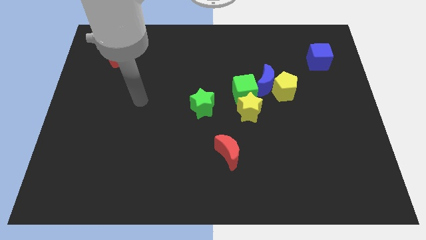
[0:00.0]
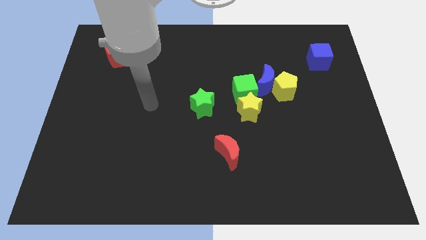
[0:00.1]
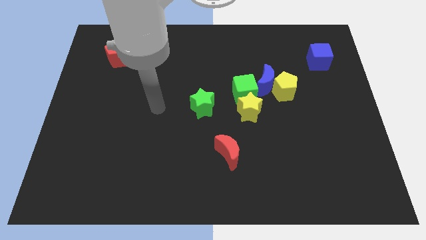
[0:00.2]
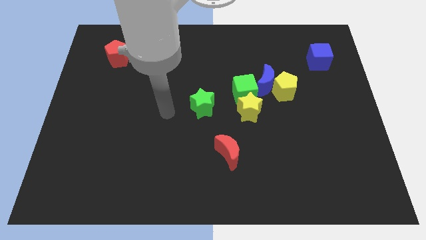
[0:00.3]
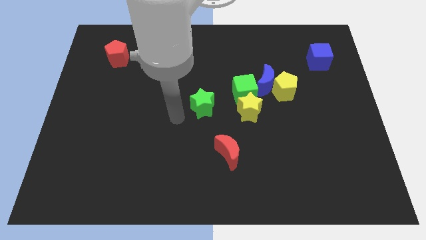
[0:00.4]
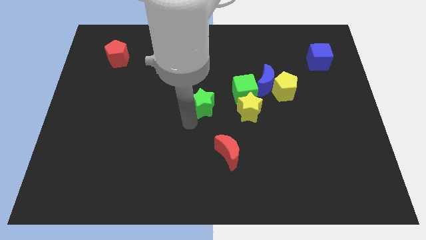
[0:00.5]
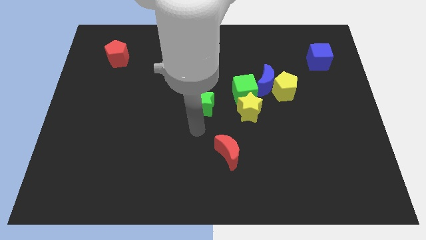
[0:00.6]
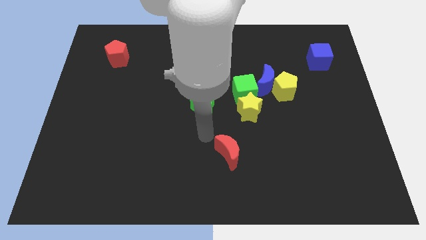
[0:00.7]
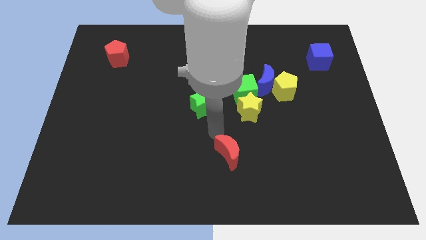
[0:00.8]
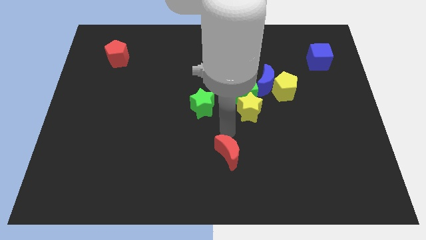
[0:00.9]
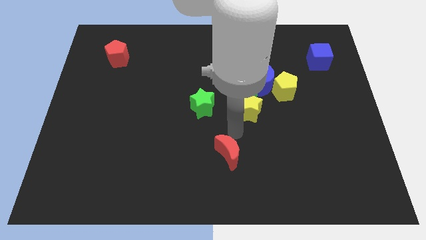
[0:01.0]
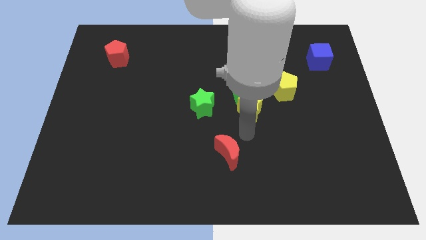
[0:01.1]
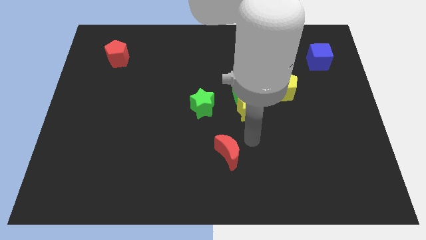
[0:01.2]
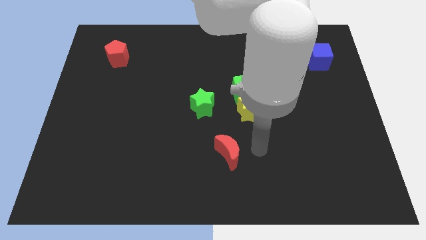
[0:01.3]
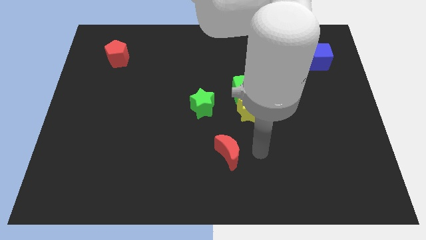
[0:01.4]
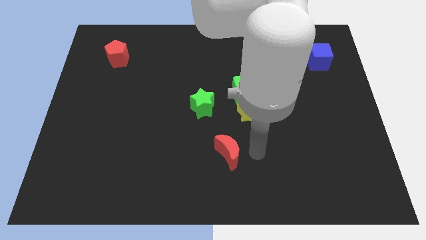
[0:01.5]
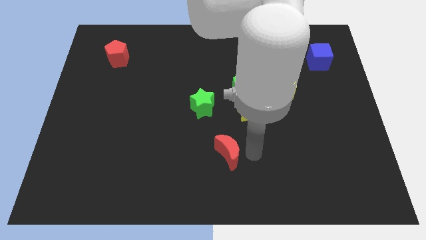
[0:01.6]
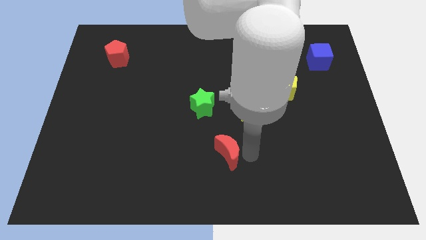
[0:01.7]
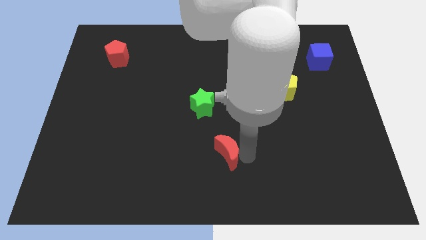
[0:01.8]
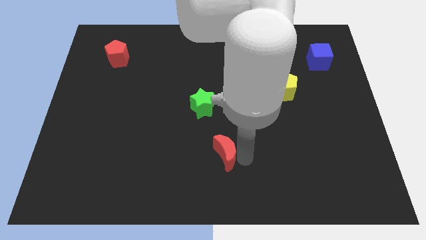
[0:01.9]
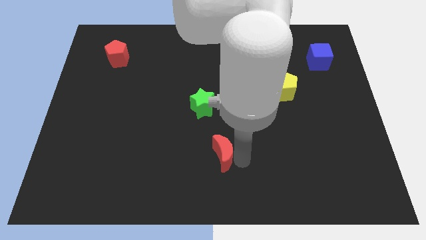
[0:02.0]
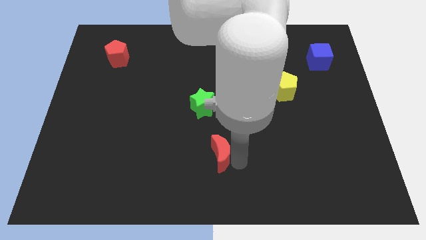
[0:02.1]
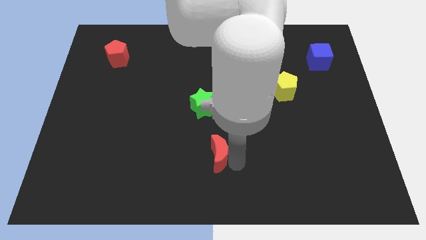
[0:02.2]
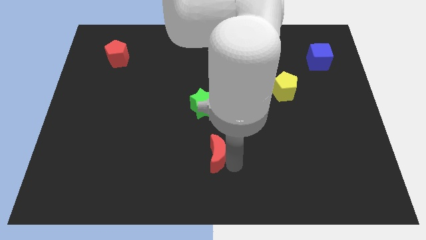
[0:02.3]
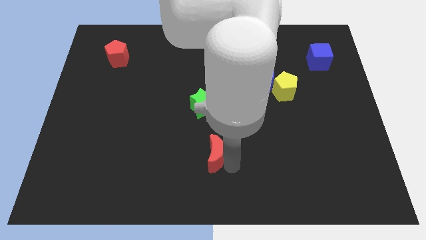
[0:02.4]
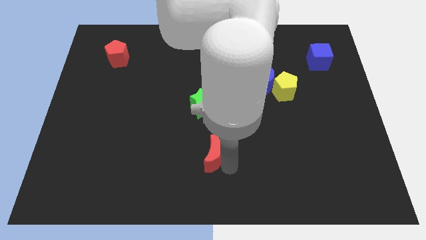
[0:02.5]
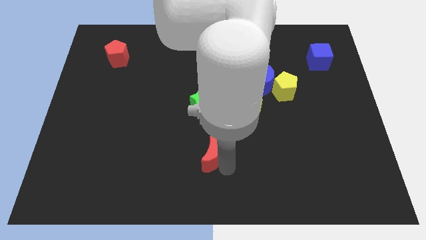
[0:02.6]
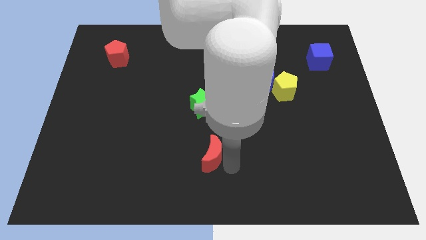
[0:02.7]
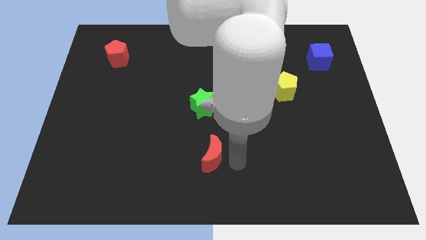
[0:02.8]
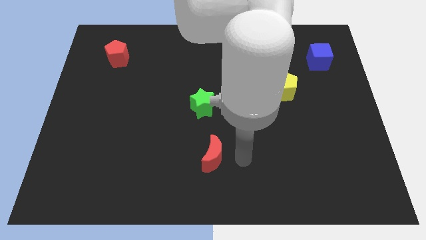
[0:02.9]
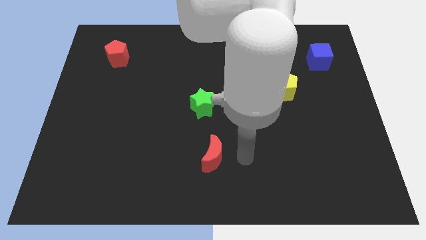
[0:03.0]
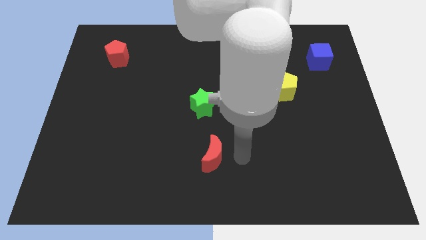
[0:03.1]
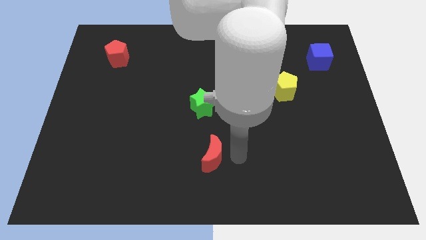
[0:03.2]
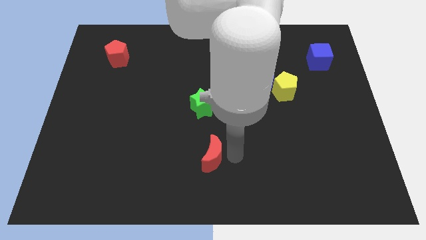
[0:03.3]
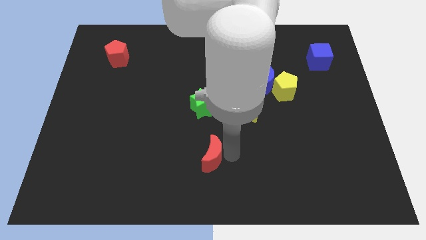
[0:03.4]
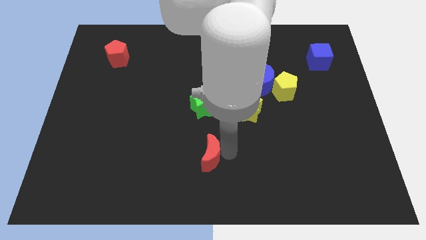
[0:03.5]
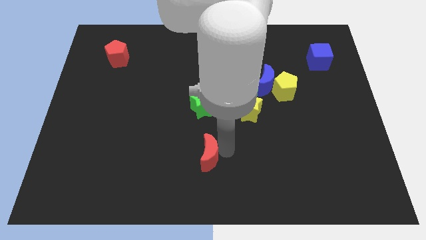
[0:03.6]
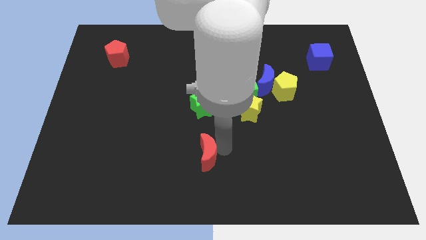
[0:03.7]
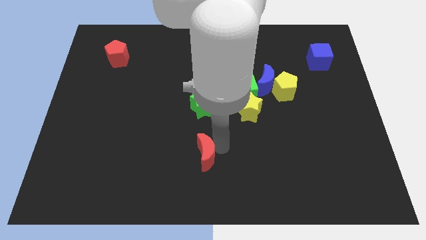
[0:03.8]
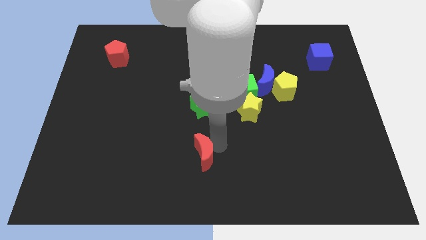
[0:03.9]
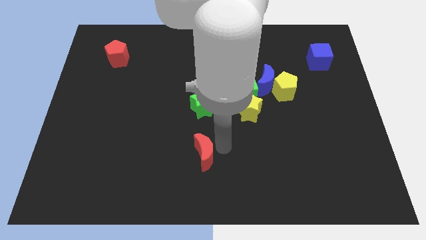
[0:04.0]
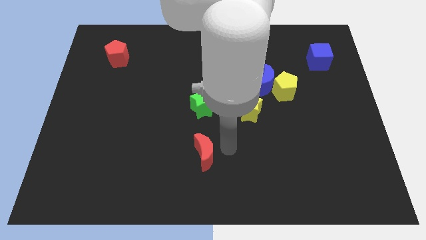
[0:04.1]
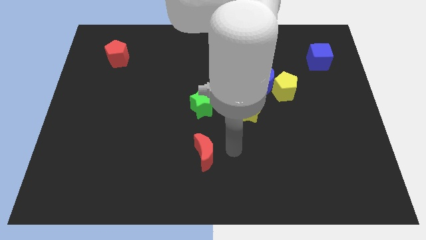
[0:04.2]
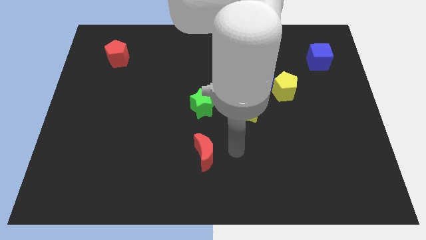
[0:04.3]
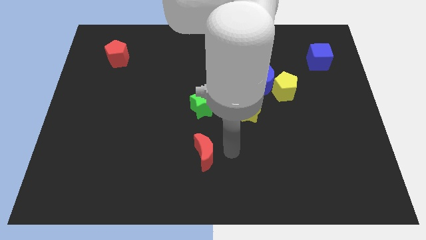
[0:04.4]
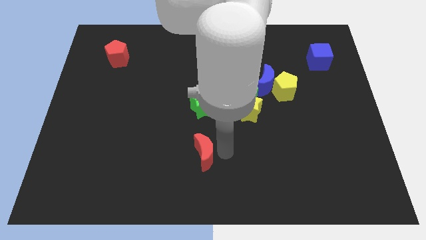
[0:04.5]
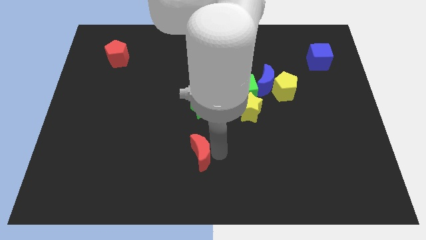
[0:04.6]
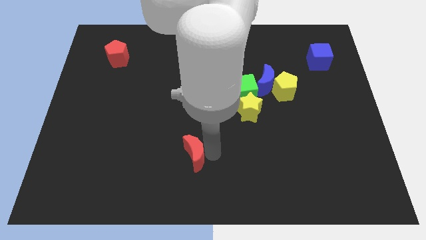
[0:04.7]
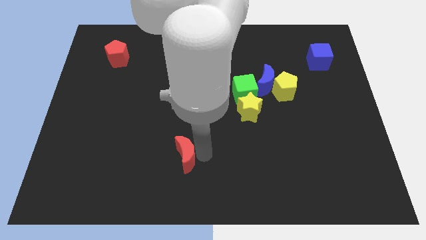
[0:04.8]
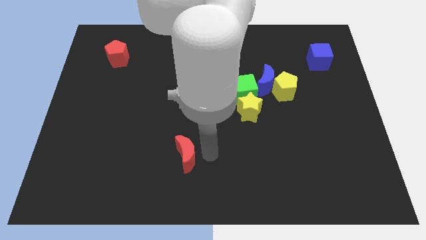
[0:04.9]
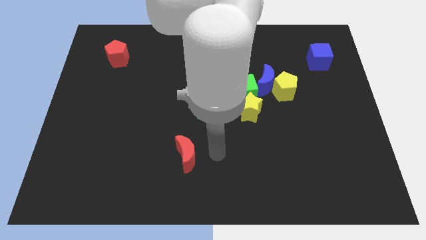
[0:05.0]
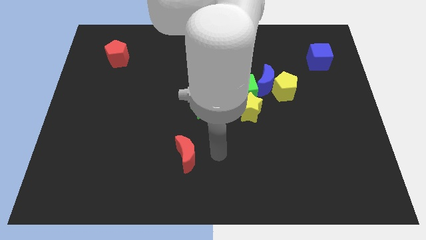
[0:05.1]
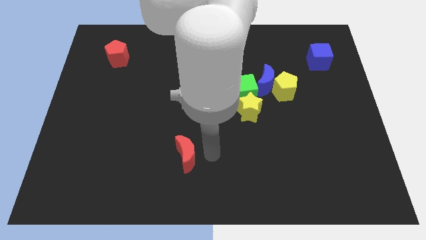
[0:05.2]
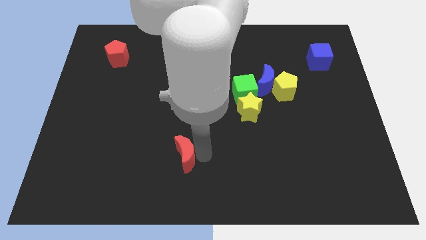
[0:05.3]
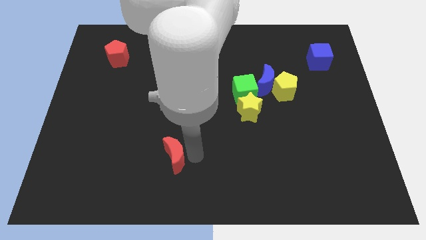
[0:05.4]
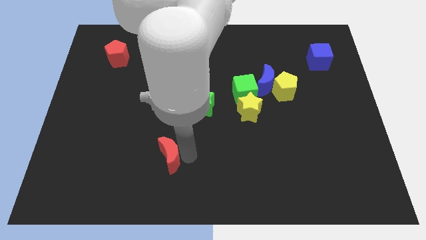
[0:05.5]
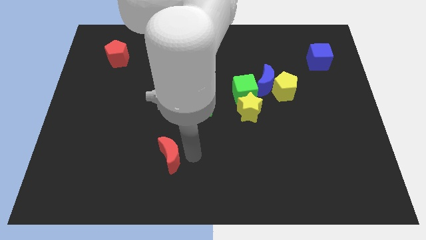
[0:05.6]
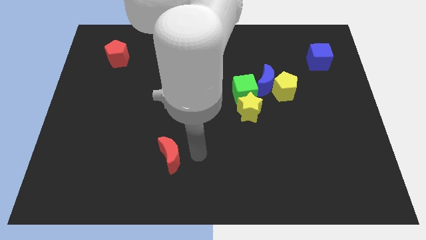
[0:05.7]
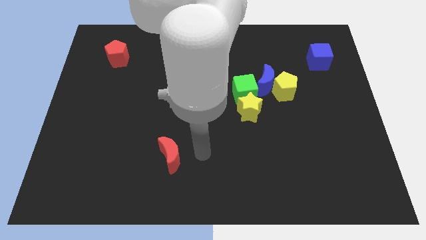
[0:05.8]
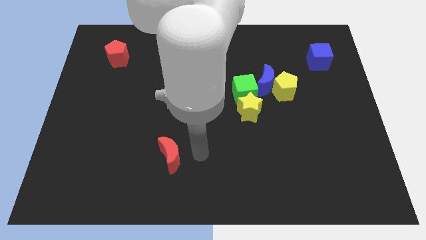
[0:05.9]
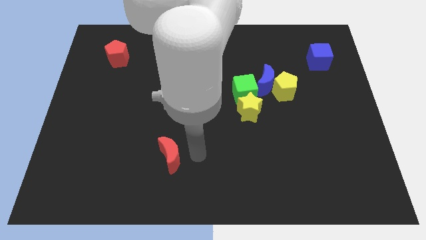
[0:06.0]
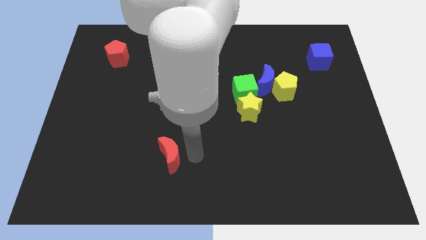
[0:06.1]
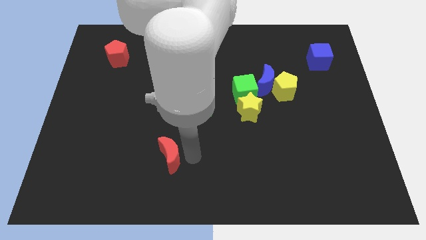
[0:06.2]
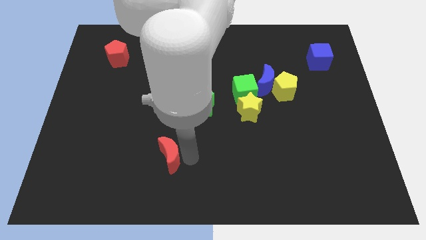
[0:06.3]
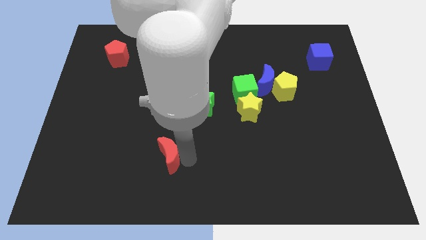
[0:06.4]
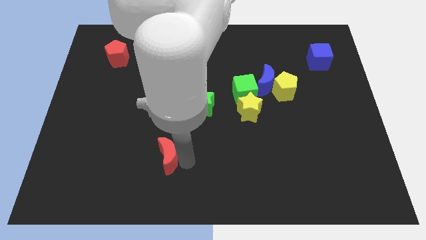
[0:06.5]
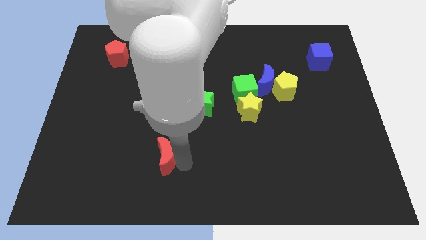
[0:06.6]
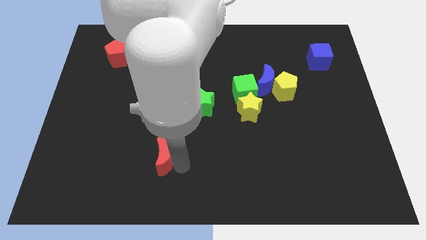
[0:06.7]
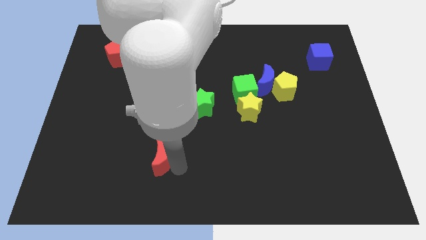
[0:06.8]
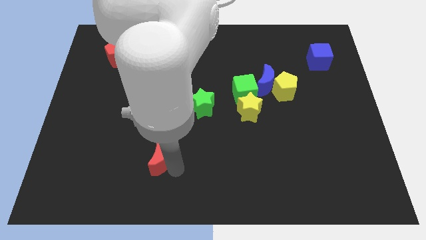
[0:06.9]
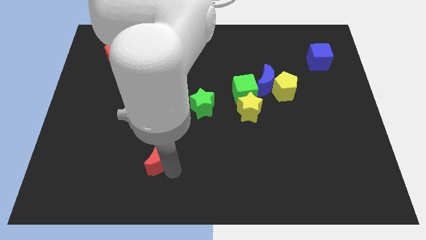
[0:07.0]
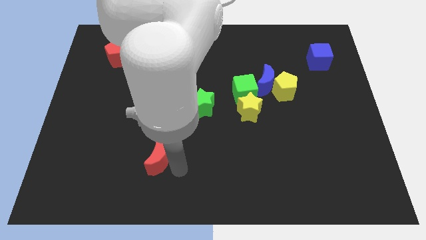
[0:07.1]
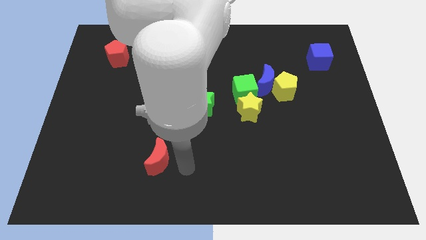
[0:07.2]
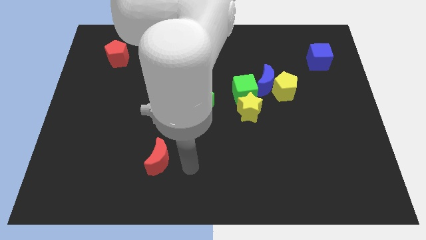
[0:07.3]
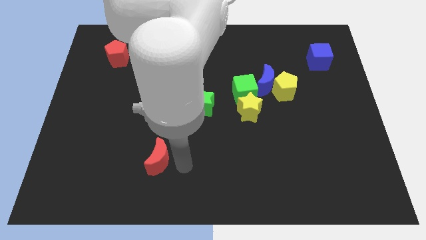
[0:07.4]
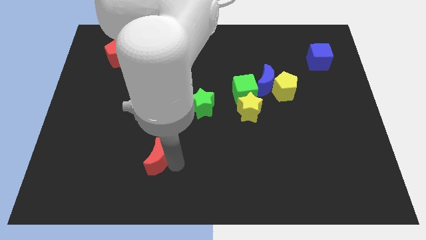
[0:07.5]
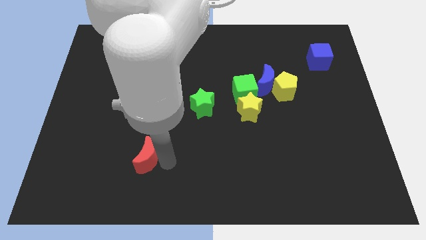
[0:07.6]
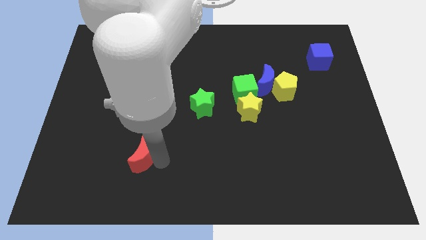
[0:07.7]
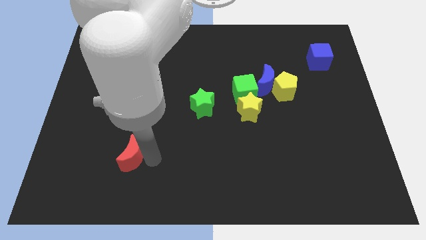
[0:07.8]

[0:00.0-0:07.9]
move the red moon left

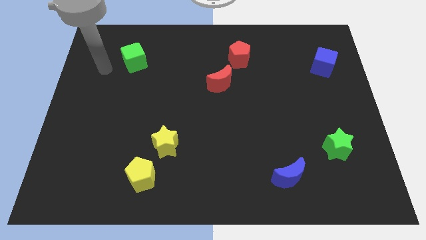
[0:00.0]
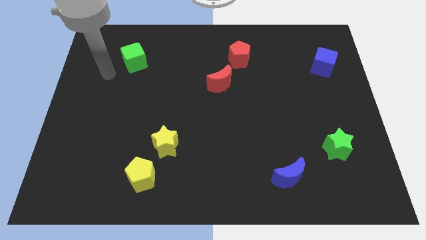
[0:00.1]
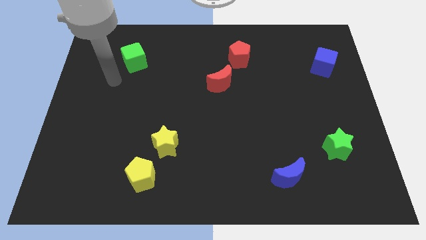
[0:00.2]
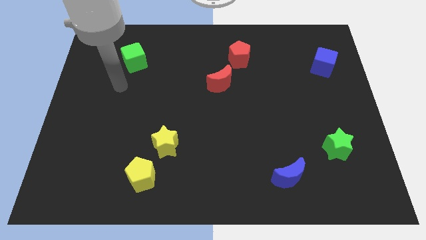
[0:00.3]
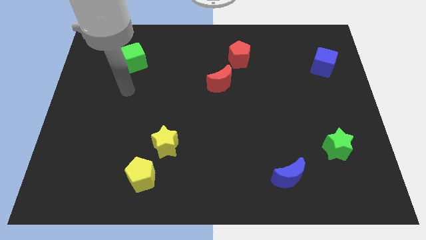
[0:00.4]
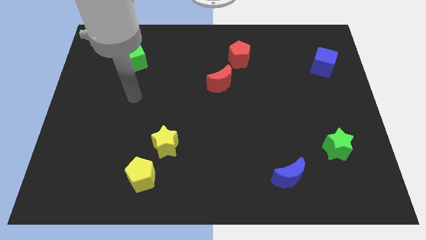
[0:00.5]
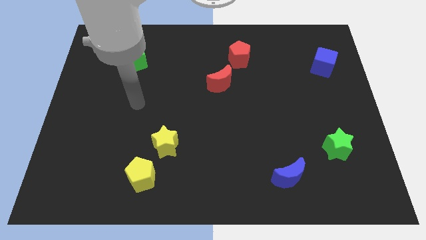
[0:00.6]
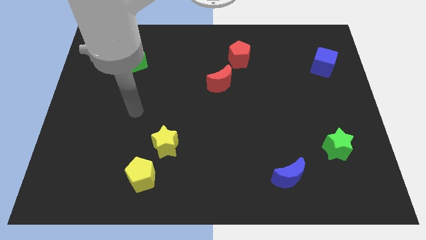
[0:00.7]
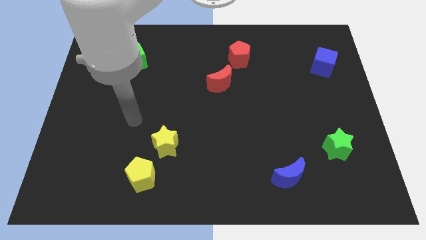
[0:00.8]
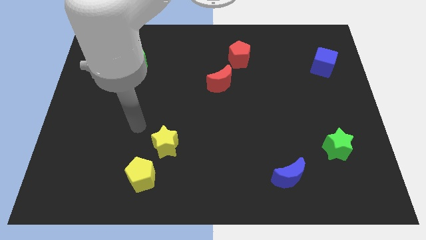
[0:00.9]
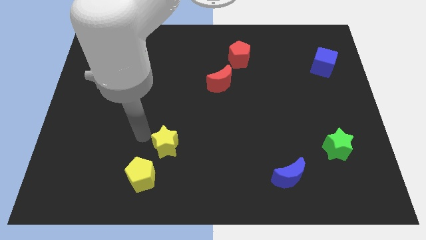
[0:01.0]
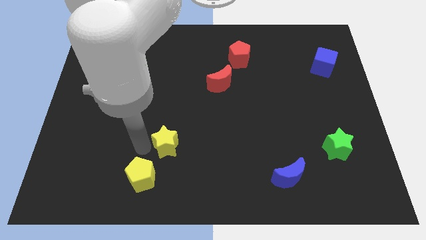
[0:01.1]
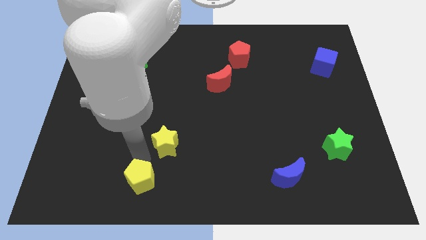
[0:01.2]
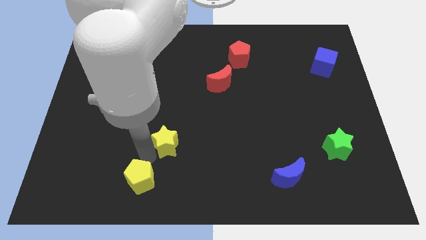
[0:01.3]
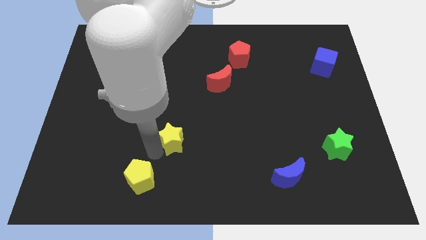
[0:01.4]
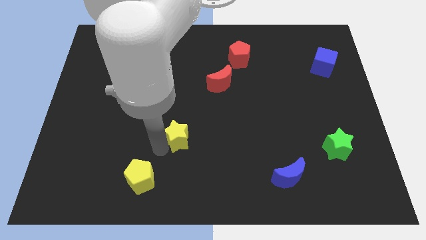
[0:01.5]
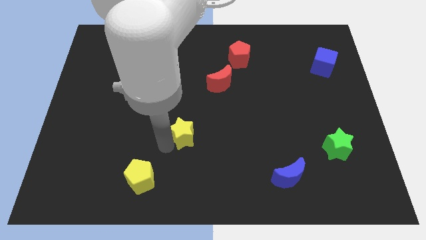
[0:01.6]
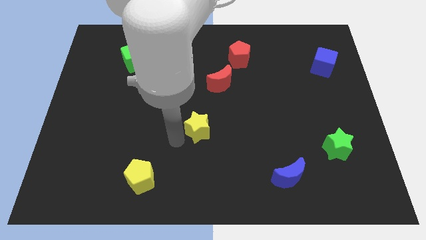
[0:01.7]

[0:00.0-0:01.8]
slightly move the yellow star up and to the right diagonally
